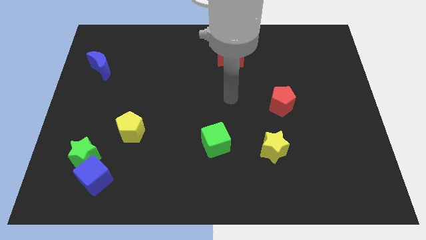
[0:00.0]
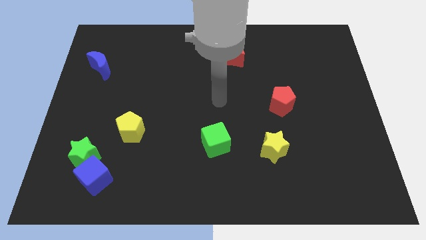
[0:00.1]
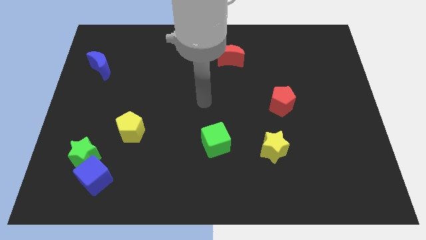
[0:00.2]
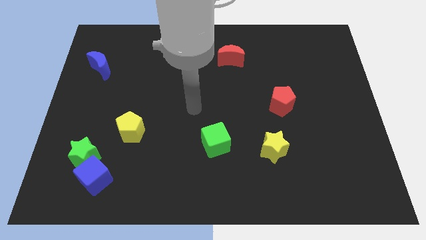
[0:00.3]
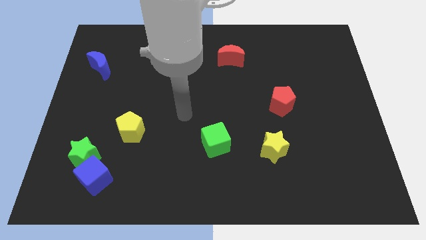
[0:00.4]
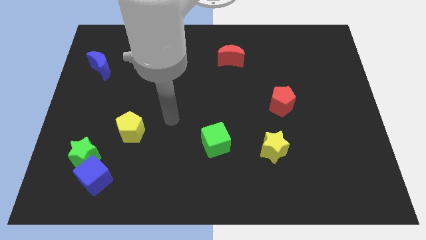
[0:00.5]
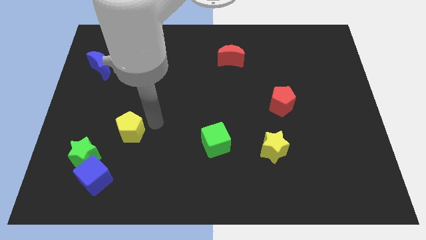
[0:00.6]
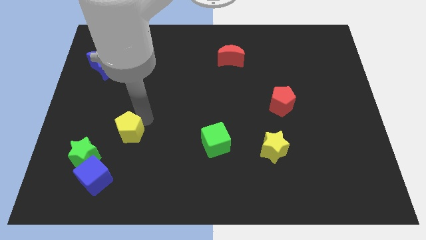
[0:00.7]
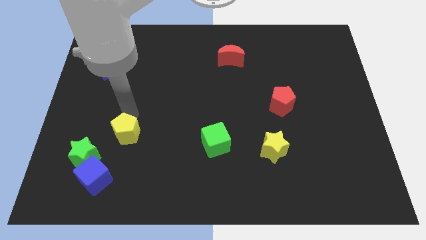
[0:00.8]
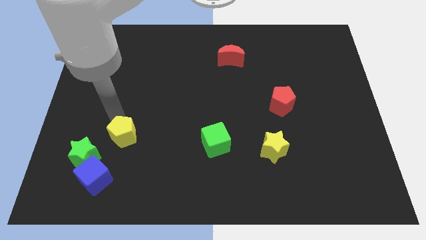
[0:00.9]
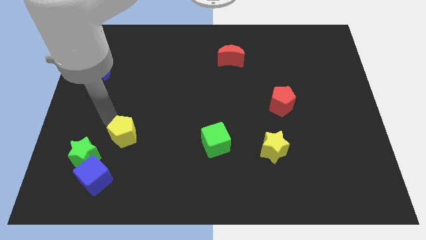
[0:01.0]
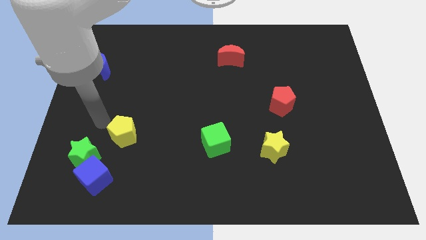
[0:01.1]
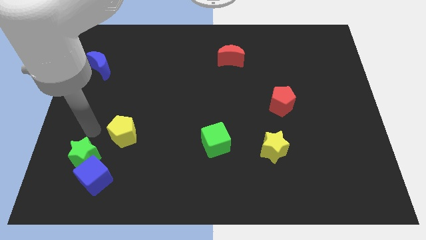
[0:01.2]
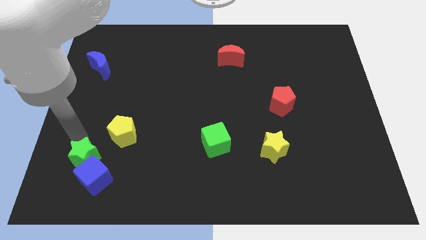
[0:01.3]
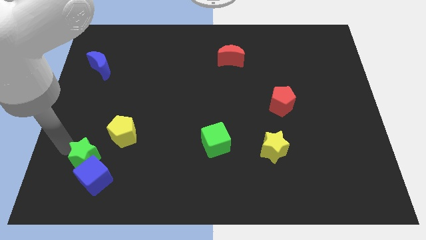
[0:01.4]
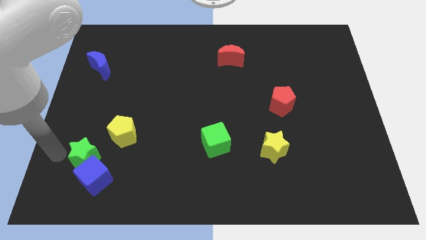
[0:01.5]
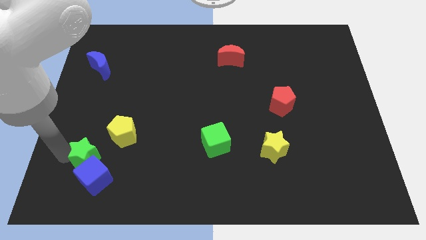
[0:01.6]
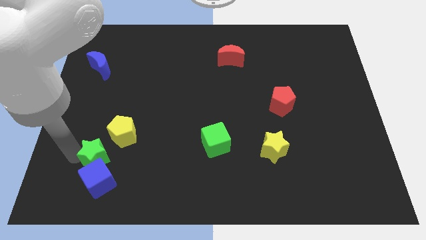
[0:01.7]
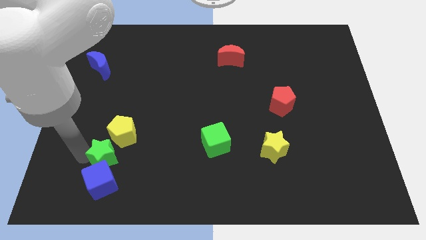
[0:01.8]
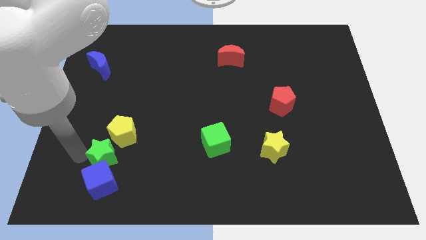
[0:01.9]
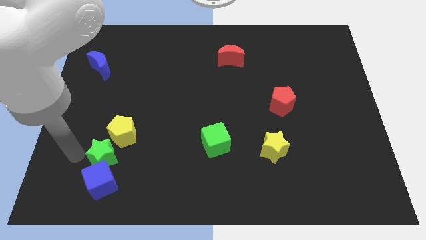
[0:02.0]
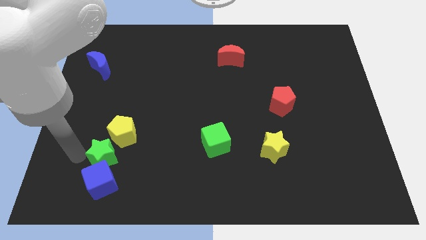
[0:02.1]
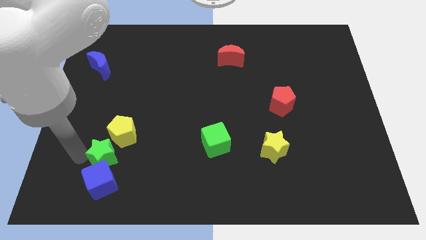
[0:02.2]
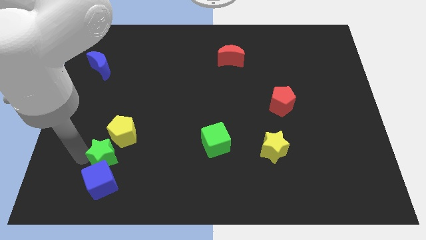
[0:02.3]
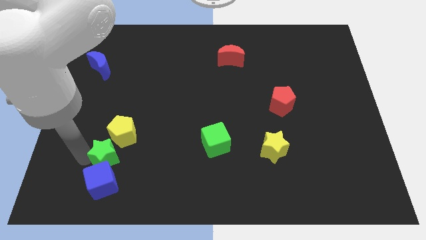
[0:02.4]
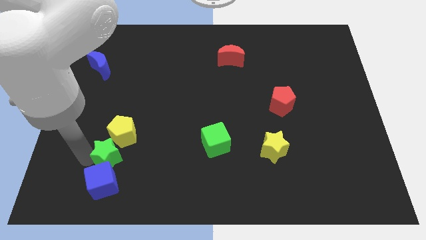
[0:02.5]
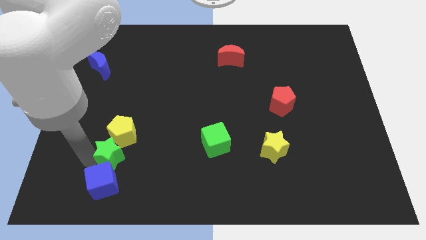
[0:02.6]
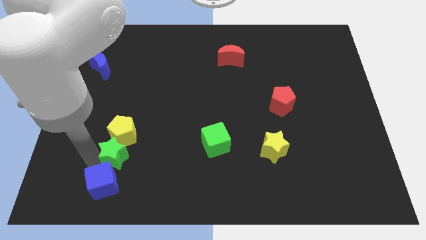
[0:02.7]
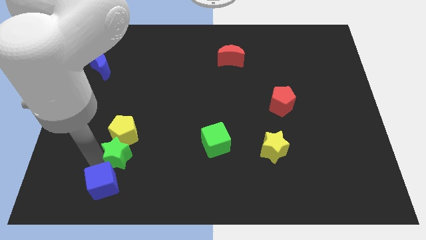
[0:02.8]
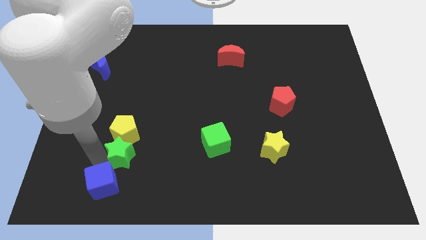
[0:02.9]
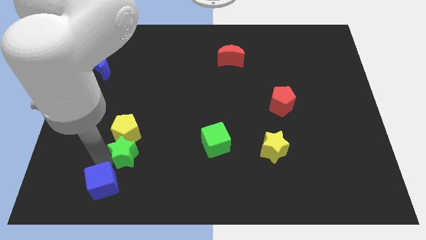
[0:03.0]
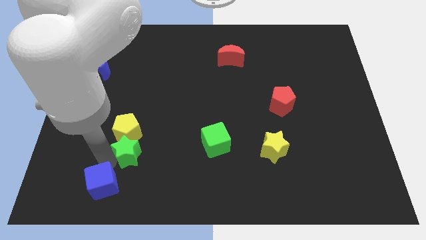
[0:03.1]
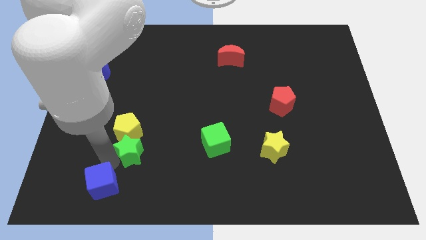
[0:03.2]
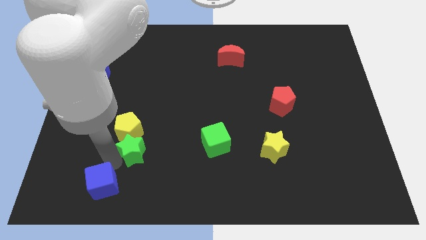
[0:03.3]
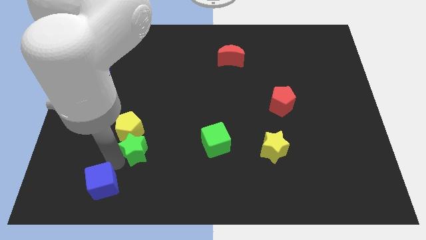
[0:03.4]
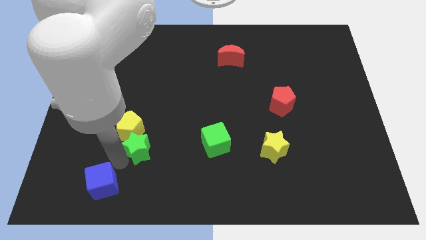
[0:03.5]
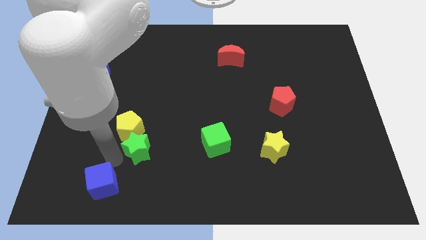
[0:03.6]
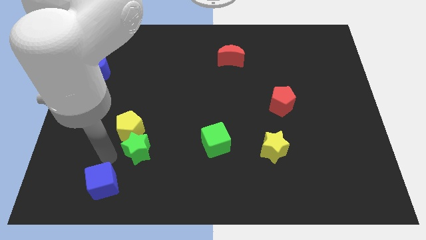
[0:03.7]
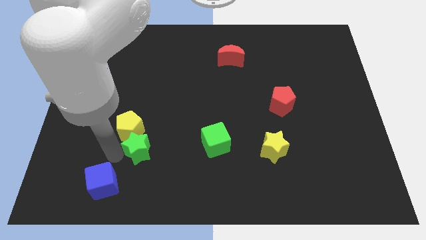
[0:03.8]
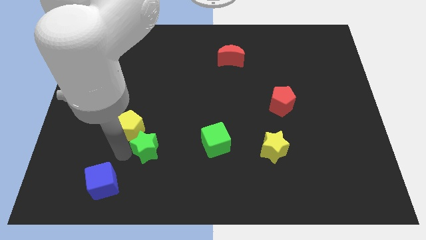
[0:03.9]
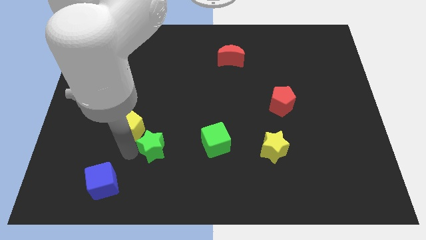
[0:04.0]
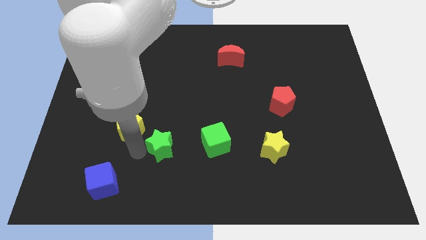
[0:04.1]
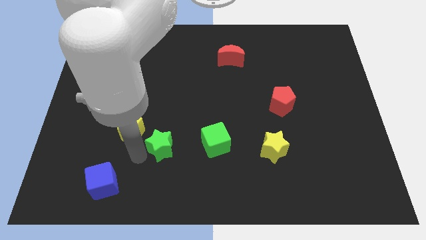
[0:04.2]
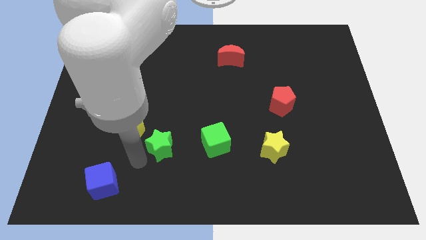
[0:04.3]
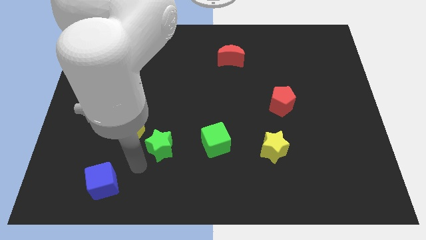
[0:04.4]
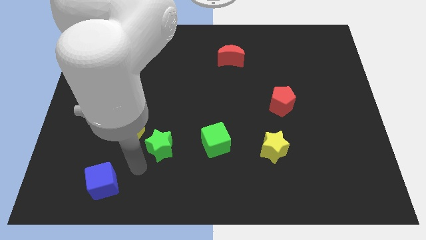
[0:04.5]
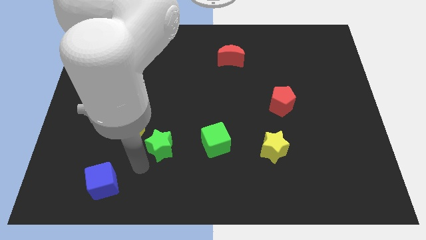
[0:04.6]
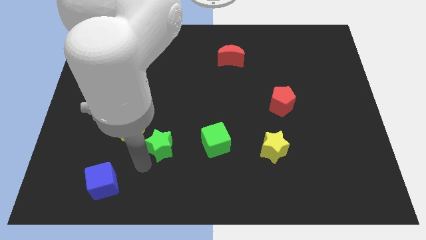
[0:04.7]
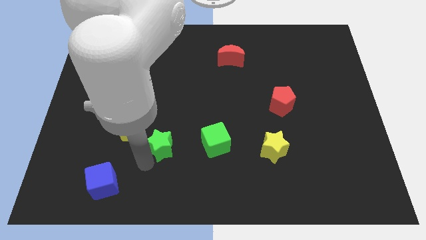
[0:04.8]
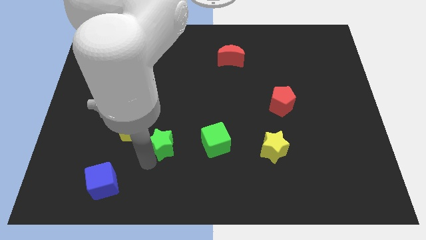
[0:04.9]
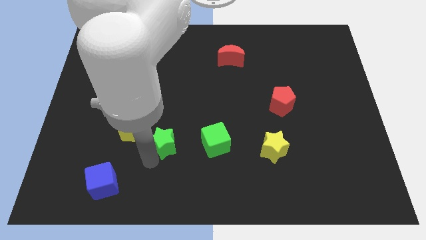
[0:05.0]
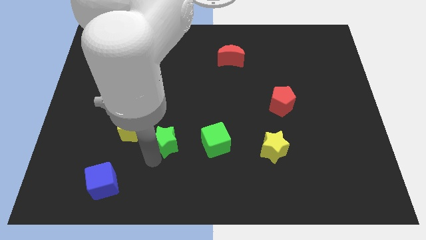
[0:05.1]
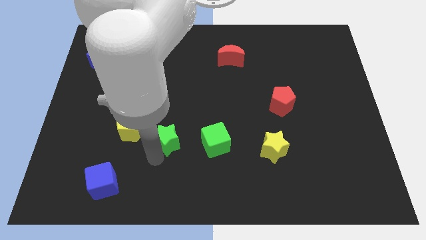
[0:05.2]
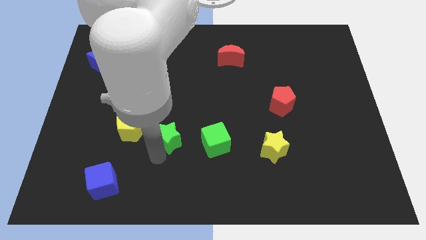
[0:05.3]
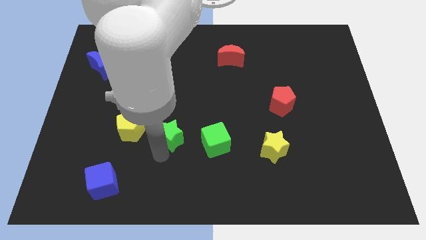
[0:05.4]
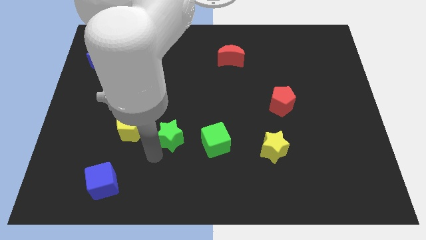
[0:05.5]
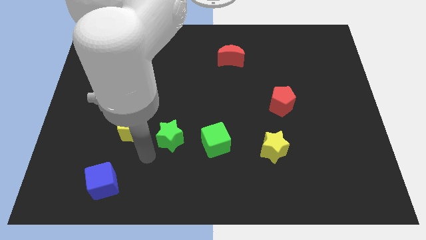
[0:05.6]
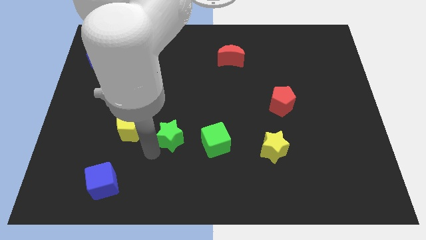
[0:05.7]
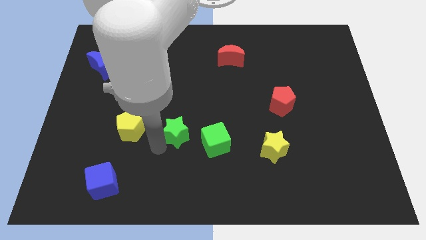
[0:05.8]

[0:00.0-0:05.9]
push the green star to the middle of the board

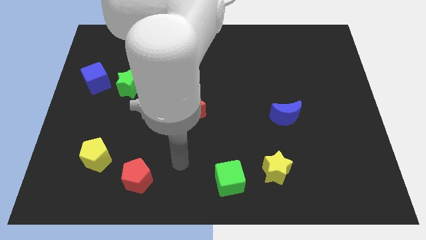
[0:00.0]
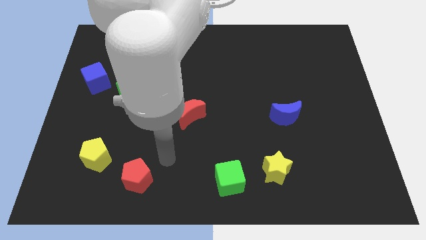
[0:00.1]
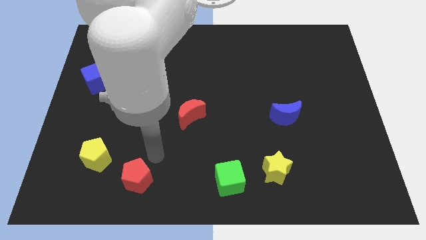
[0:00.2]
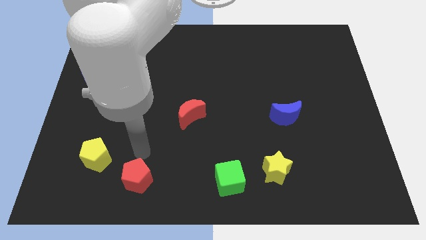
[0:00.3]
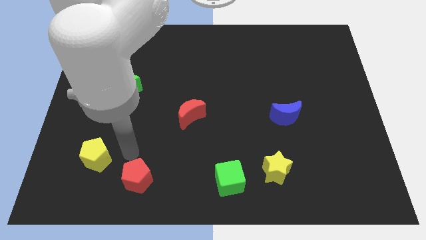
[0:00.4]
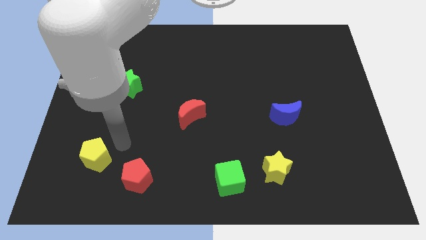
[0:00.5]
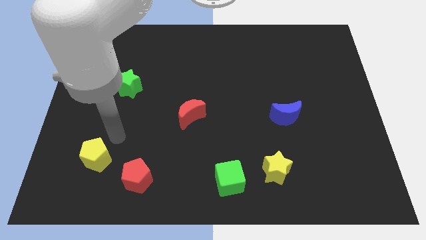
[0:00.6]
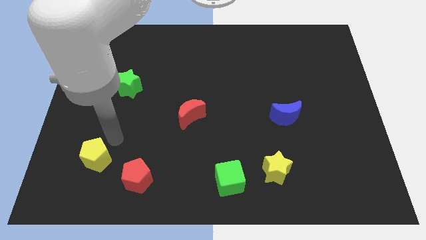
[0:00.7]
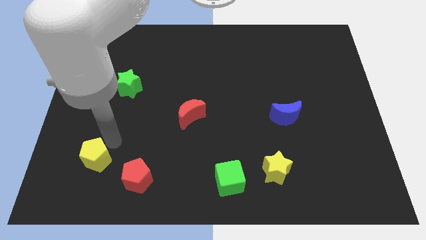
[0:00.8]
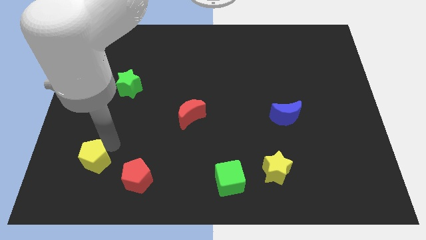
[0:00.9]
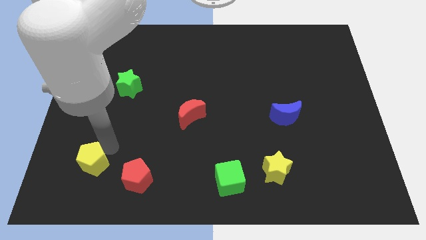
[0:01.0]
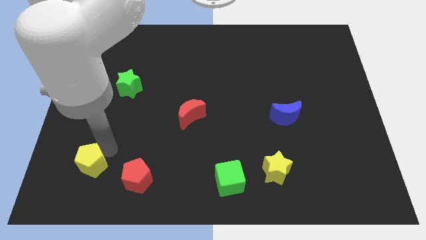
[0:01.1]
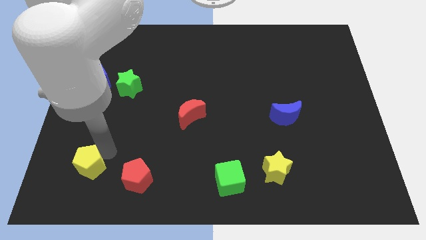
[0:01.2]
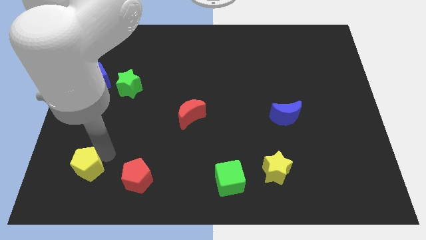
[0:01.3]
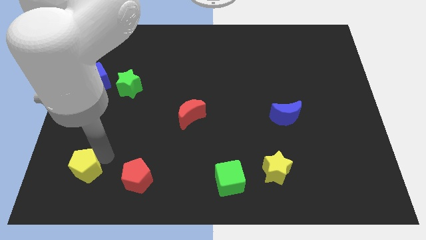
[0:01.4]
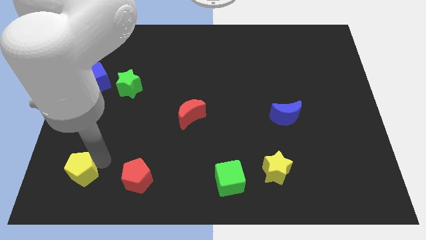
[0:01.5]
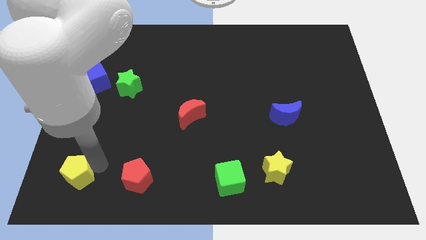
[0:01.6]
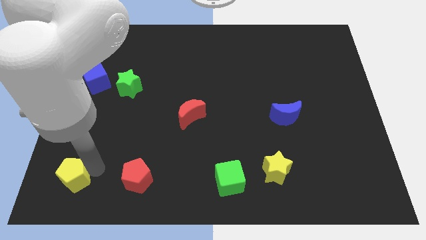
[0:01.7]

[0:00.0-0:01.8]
put the yellow pentagon to the bottom left of the board
